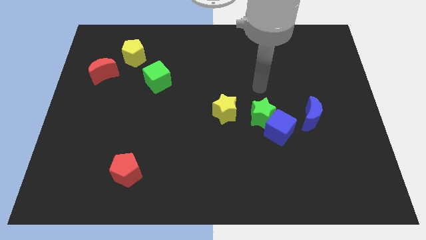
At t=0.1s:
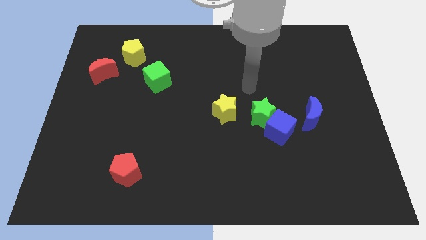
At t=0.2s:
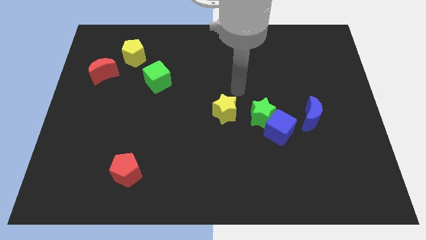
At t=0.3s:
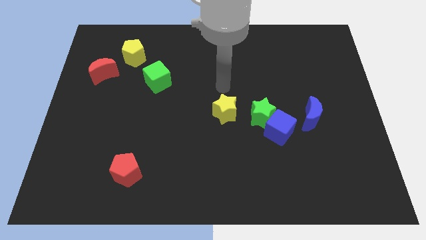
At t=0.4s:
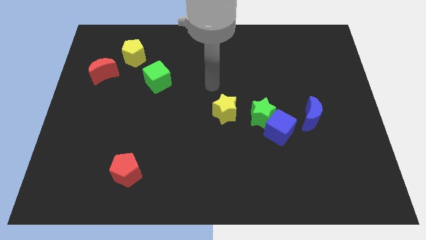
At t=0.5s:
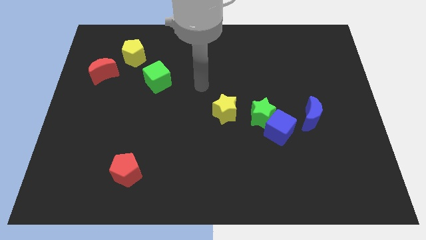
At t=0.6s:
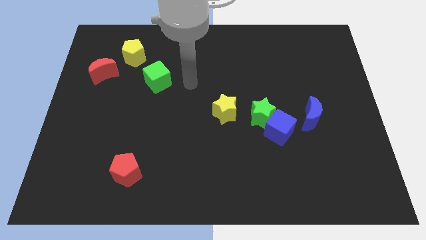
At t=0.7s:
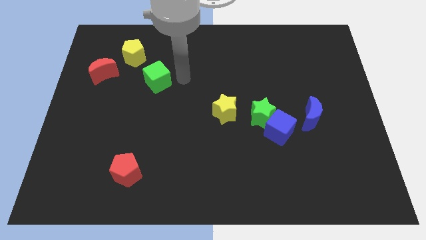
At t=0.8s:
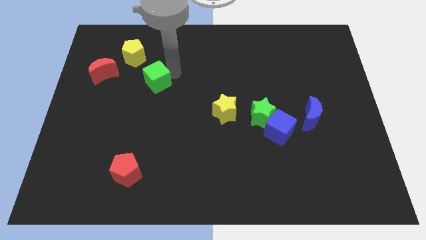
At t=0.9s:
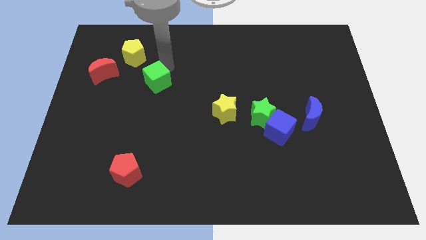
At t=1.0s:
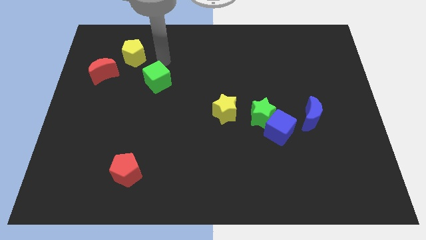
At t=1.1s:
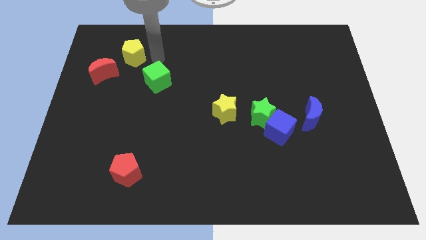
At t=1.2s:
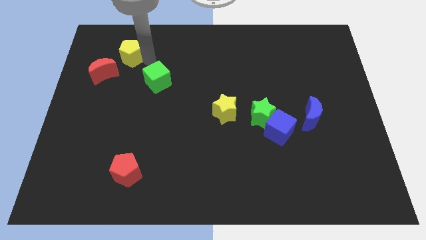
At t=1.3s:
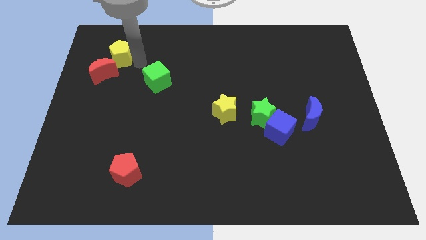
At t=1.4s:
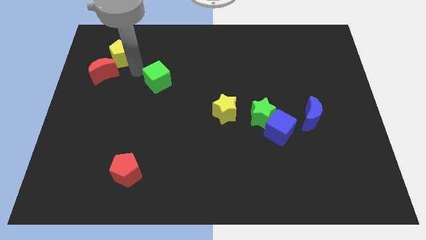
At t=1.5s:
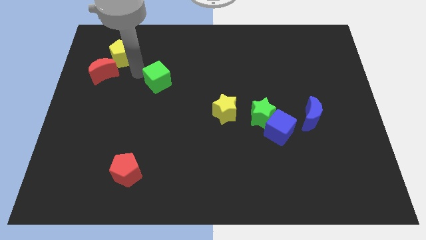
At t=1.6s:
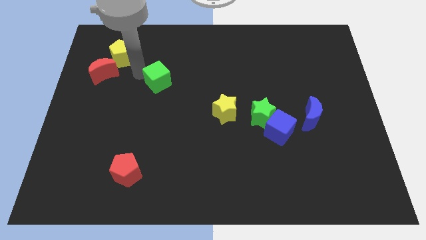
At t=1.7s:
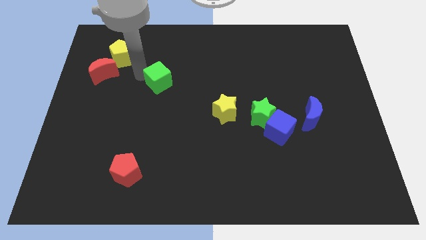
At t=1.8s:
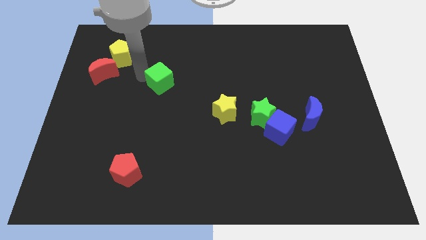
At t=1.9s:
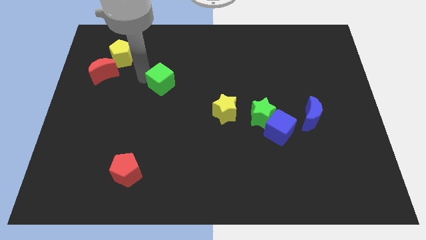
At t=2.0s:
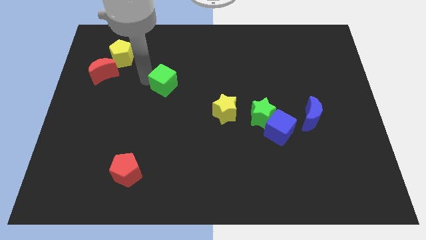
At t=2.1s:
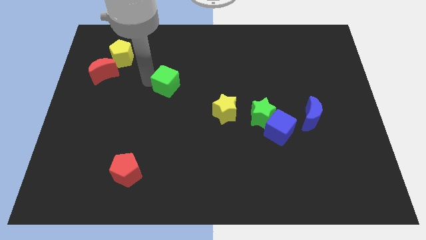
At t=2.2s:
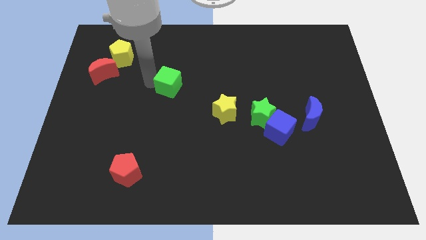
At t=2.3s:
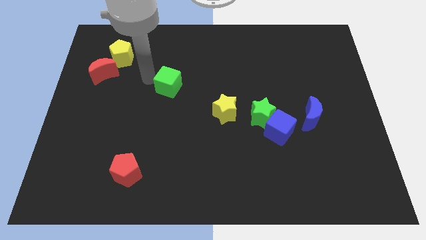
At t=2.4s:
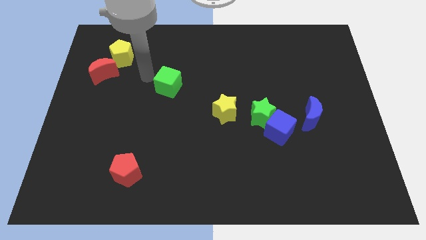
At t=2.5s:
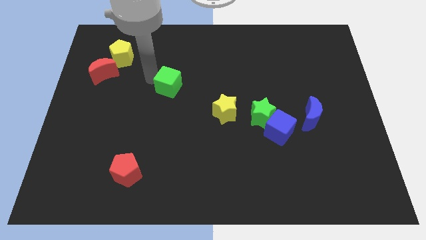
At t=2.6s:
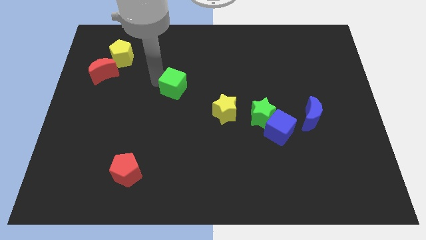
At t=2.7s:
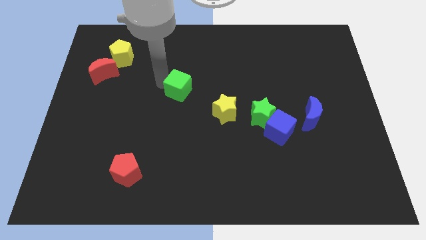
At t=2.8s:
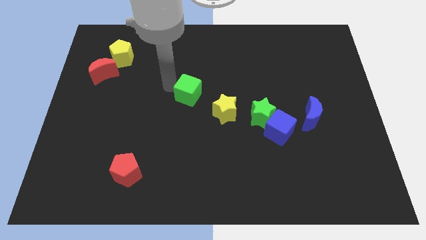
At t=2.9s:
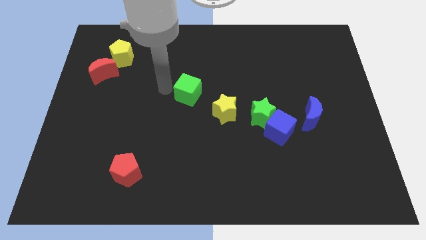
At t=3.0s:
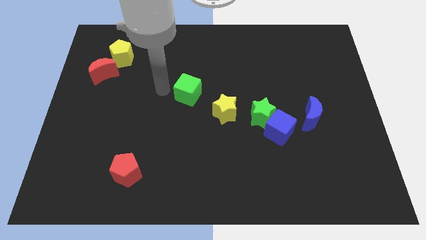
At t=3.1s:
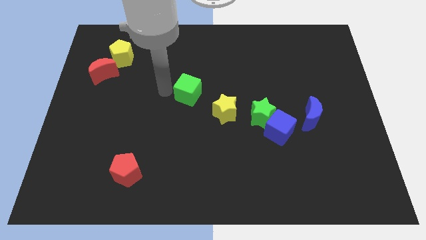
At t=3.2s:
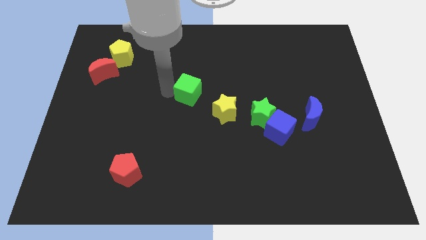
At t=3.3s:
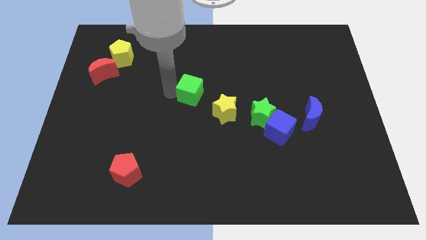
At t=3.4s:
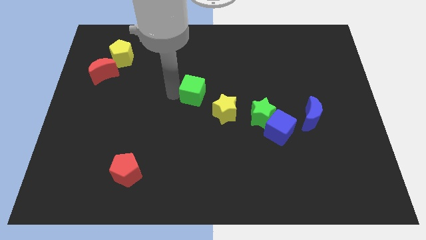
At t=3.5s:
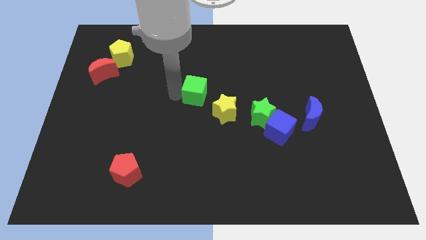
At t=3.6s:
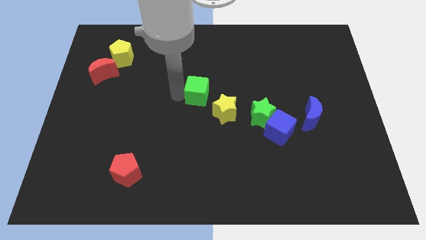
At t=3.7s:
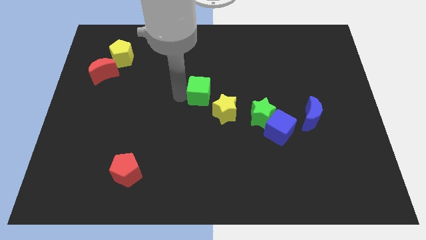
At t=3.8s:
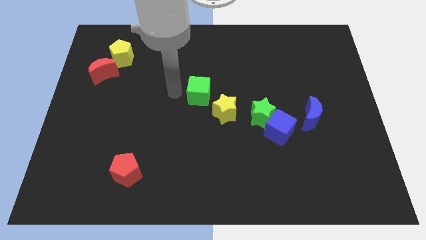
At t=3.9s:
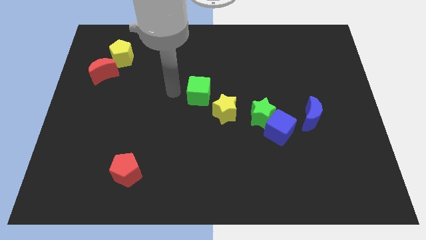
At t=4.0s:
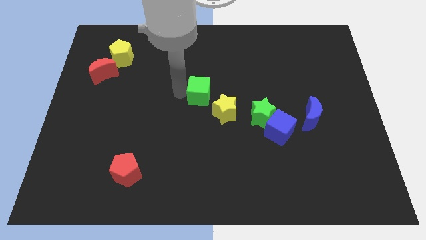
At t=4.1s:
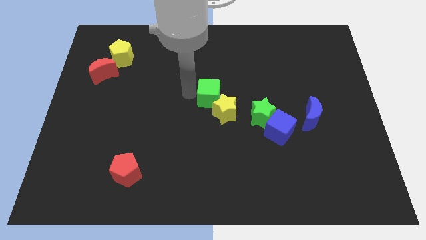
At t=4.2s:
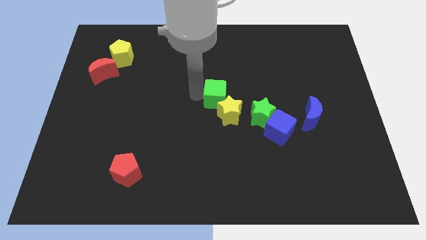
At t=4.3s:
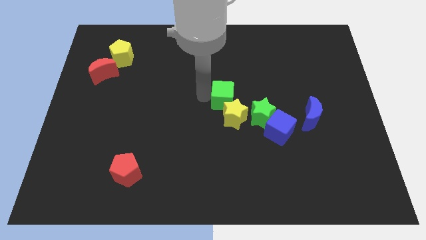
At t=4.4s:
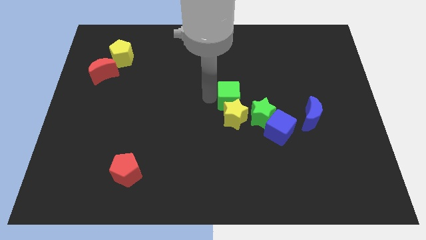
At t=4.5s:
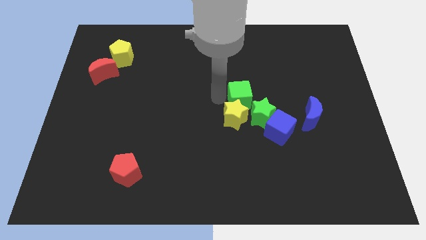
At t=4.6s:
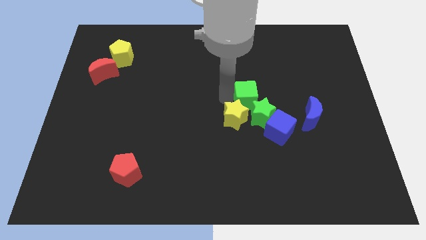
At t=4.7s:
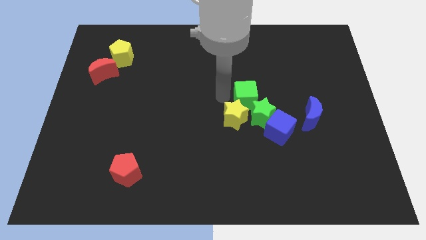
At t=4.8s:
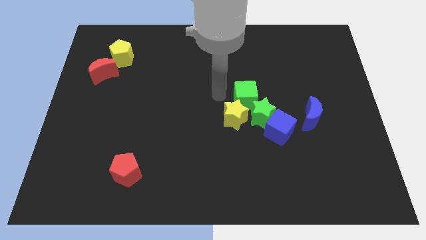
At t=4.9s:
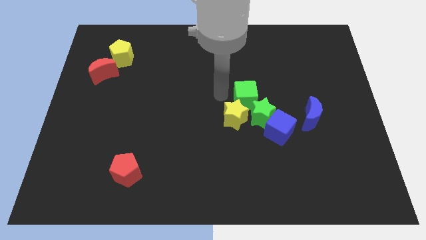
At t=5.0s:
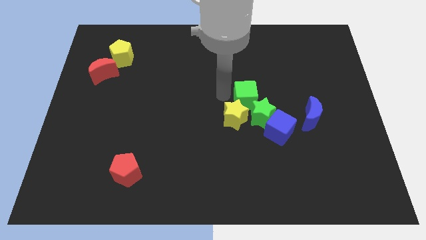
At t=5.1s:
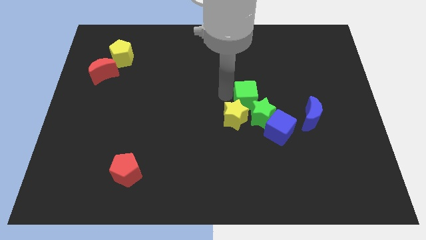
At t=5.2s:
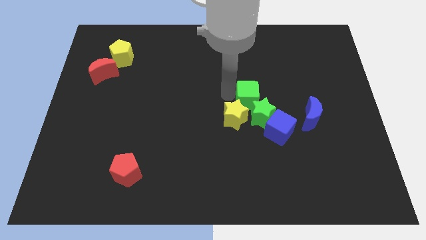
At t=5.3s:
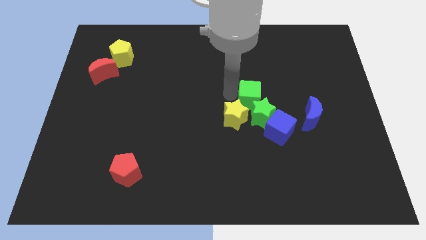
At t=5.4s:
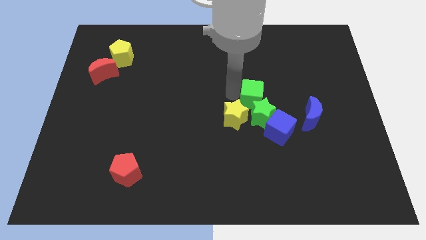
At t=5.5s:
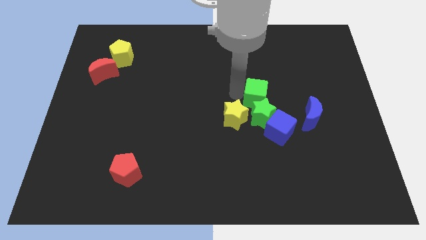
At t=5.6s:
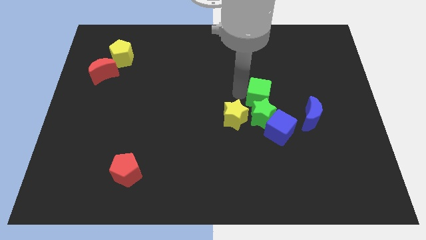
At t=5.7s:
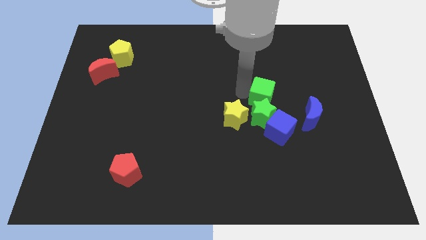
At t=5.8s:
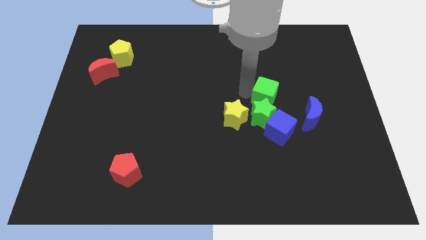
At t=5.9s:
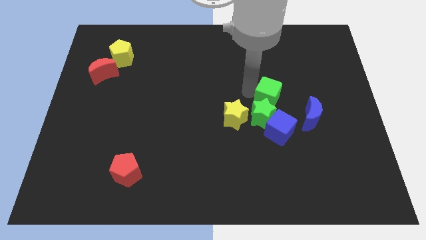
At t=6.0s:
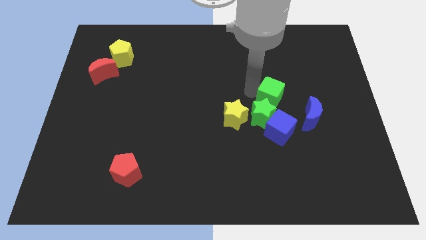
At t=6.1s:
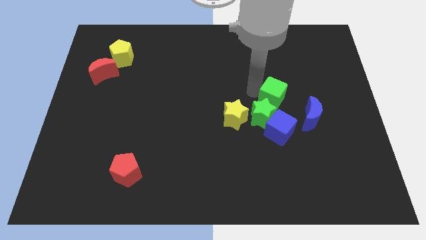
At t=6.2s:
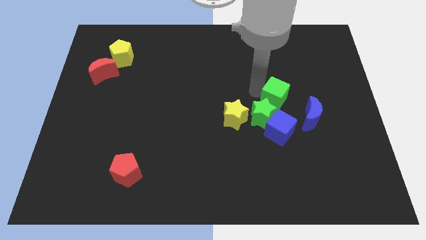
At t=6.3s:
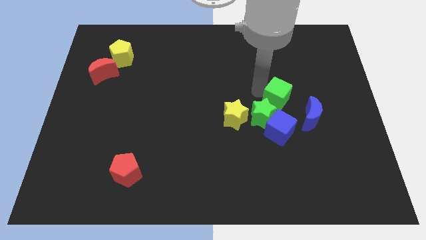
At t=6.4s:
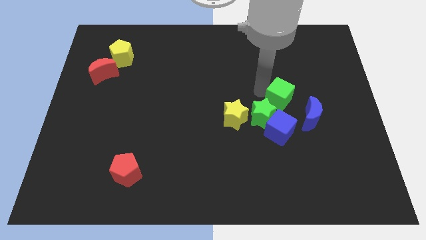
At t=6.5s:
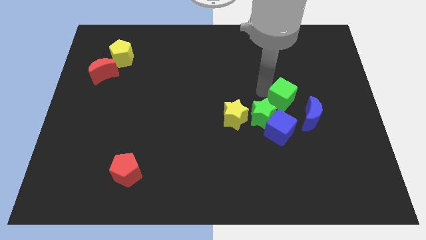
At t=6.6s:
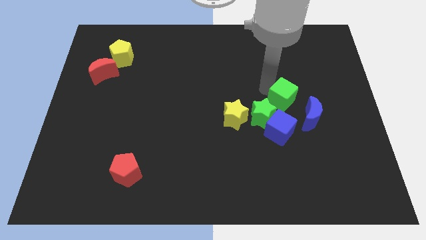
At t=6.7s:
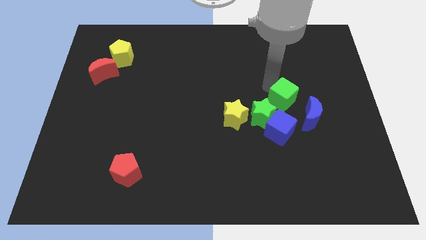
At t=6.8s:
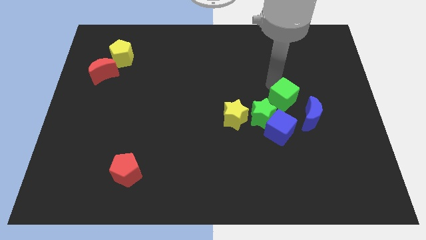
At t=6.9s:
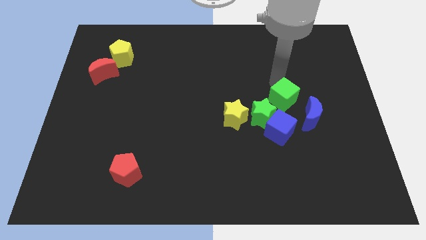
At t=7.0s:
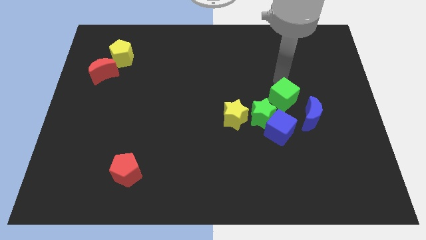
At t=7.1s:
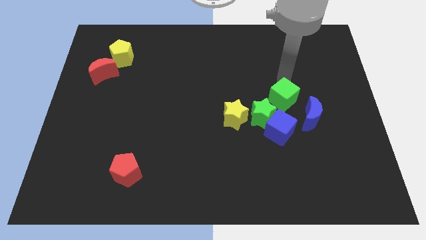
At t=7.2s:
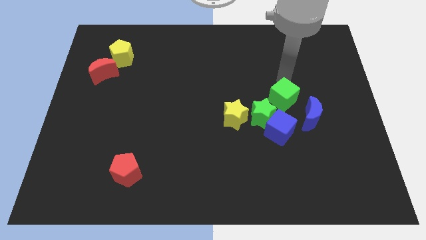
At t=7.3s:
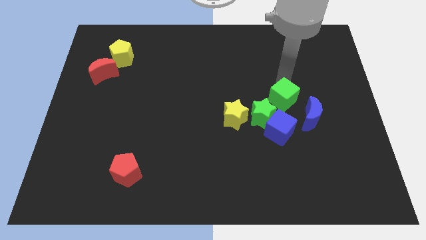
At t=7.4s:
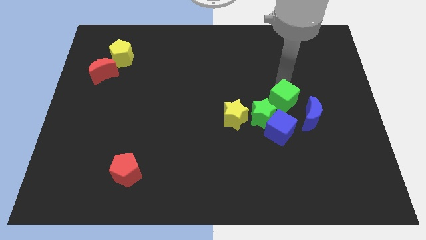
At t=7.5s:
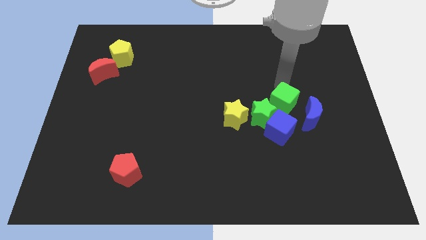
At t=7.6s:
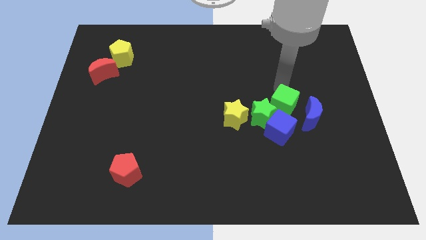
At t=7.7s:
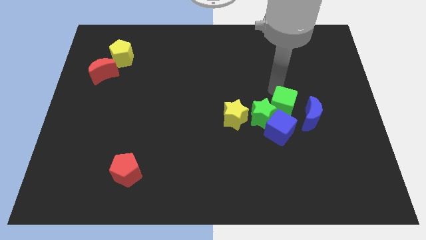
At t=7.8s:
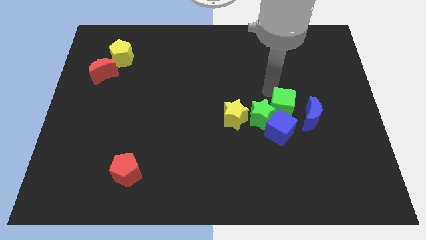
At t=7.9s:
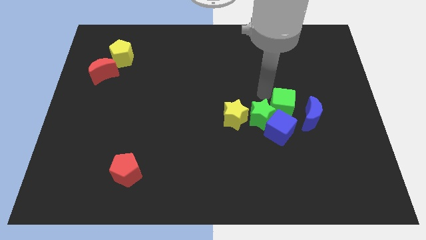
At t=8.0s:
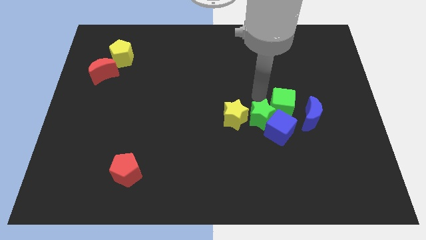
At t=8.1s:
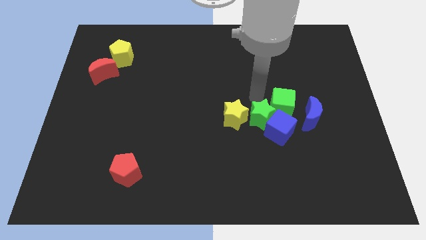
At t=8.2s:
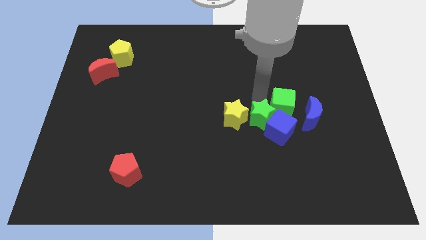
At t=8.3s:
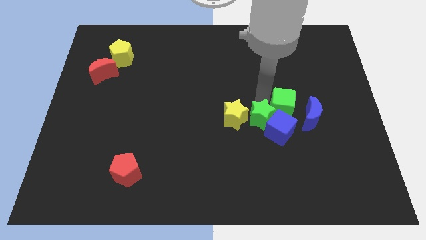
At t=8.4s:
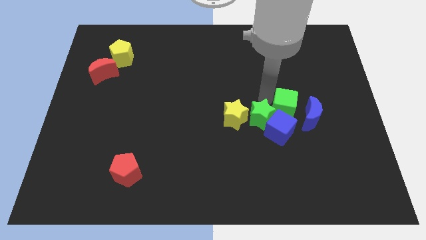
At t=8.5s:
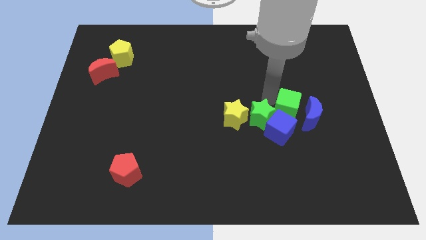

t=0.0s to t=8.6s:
push the green cube next to the blue moon
